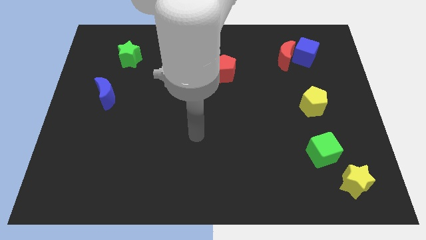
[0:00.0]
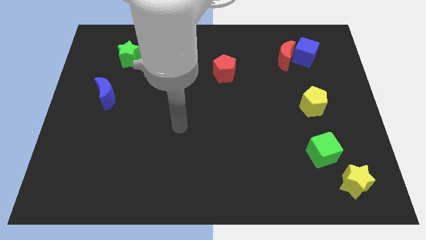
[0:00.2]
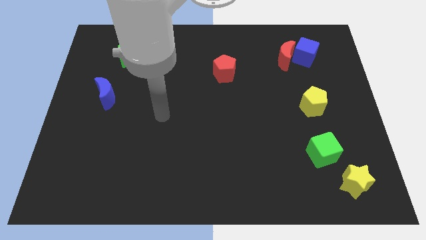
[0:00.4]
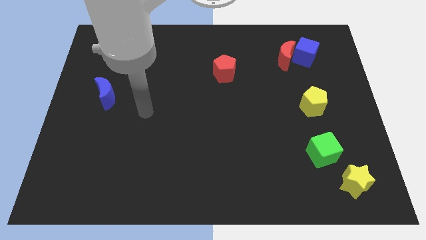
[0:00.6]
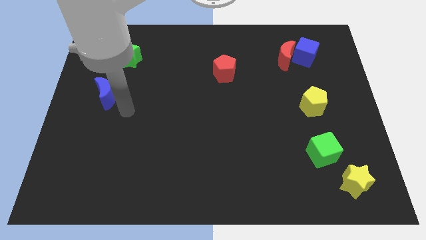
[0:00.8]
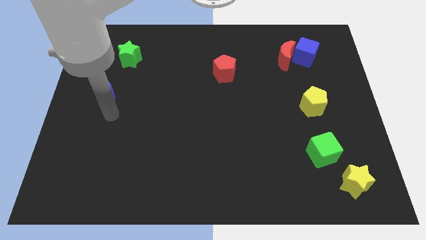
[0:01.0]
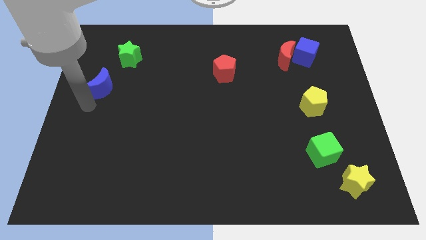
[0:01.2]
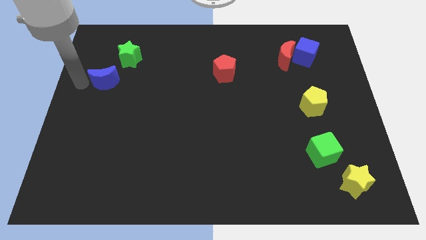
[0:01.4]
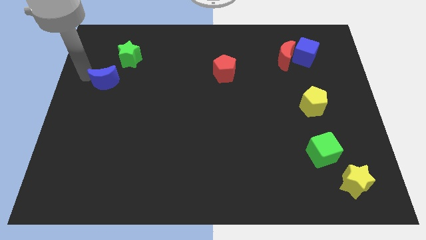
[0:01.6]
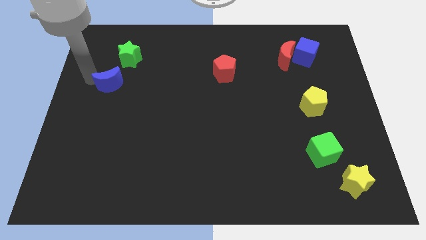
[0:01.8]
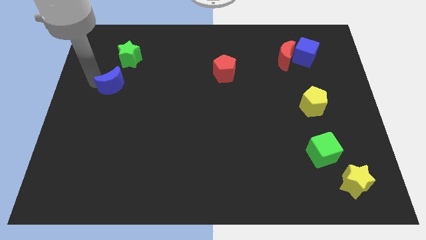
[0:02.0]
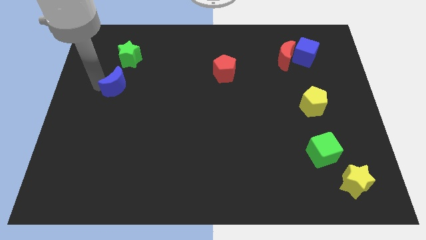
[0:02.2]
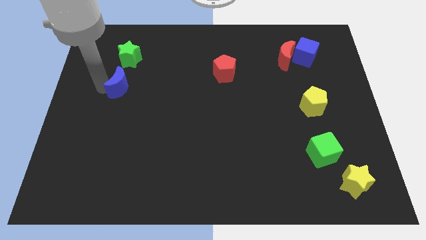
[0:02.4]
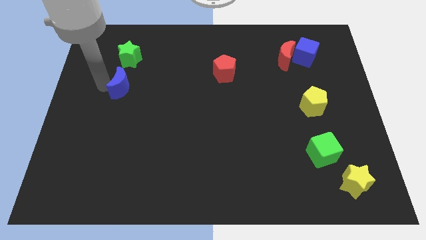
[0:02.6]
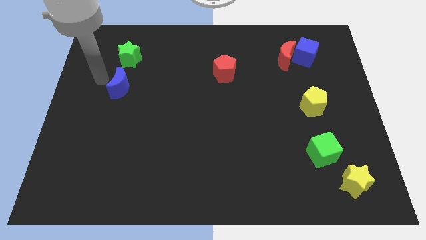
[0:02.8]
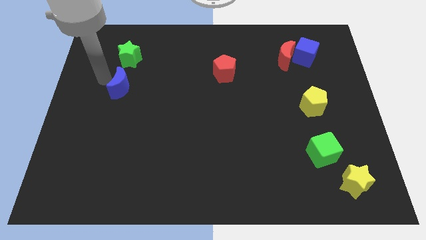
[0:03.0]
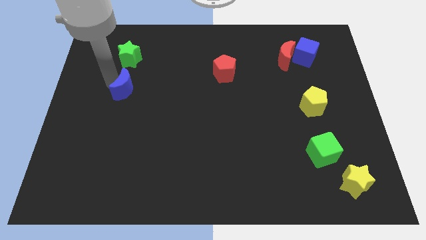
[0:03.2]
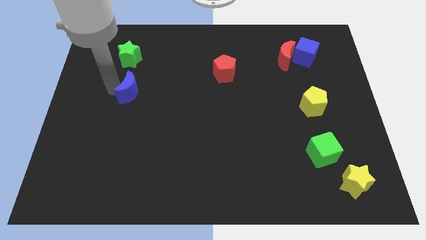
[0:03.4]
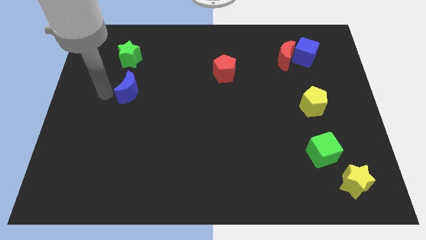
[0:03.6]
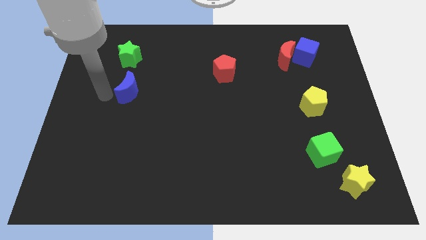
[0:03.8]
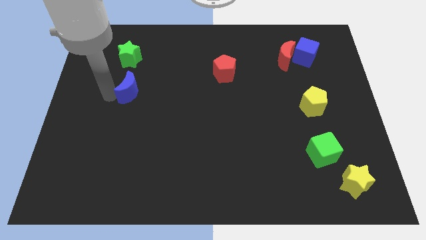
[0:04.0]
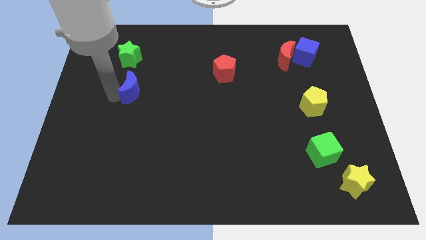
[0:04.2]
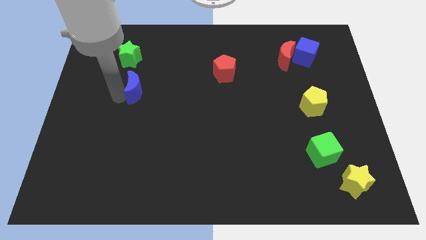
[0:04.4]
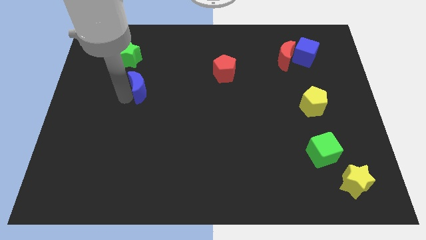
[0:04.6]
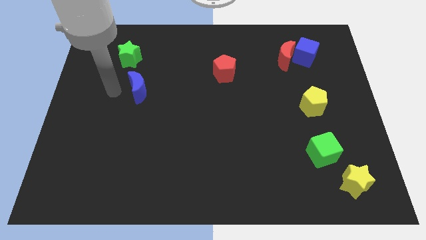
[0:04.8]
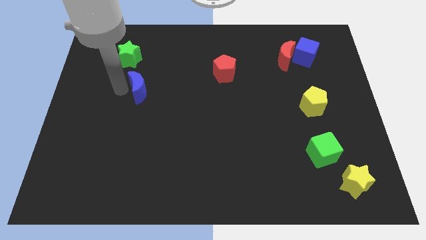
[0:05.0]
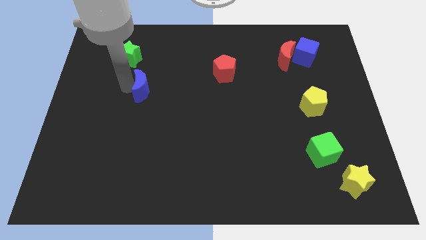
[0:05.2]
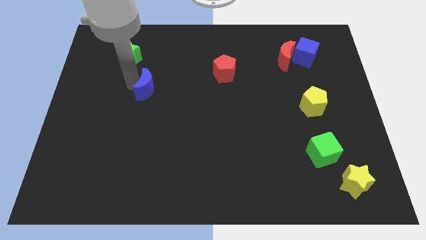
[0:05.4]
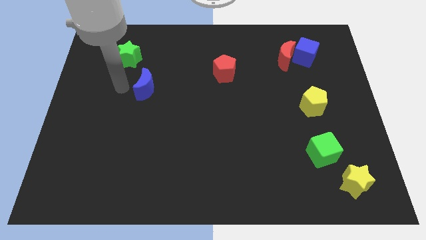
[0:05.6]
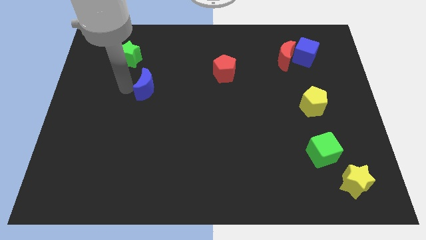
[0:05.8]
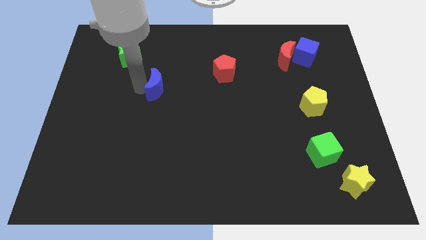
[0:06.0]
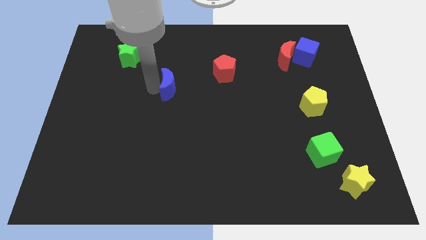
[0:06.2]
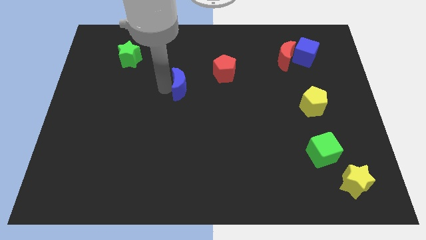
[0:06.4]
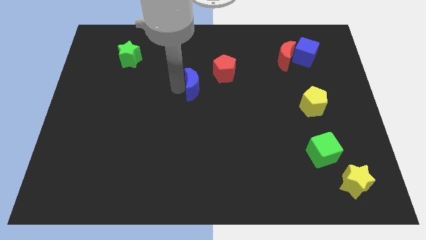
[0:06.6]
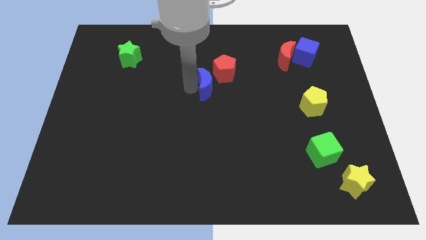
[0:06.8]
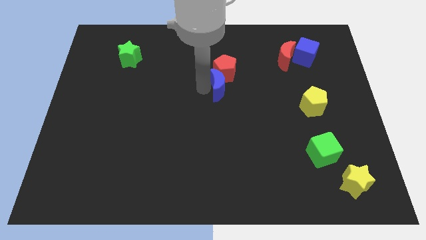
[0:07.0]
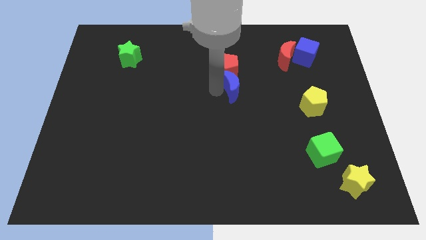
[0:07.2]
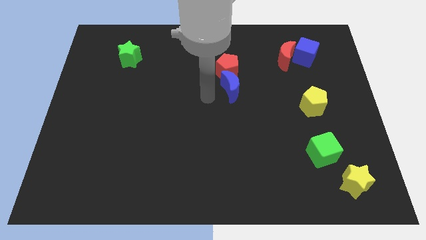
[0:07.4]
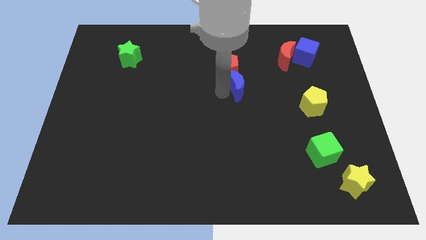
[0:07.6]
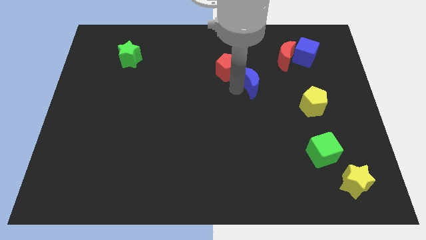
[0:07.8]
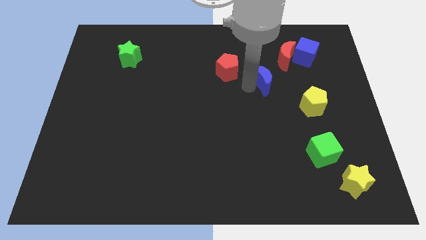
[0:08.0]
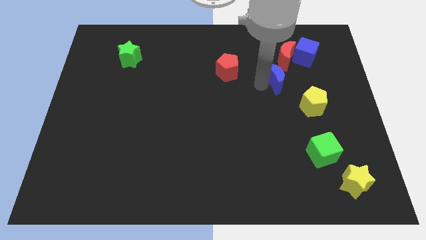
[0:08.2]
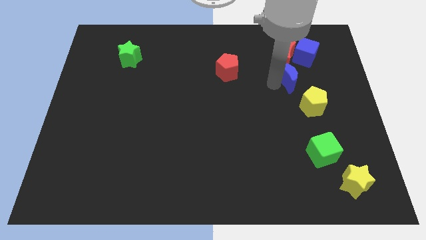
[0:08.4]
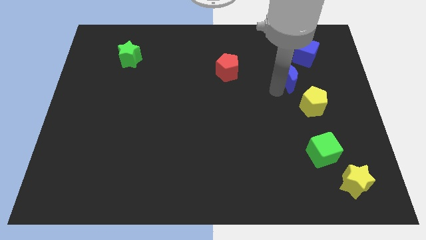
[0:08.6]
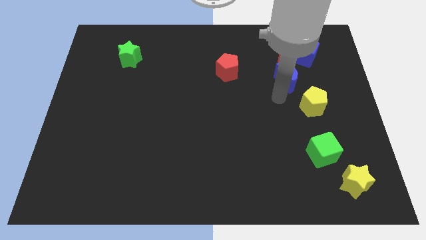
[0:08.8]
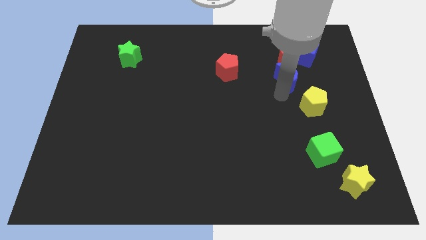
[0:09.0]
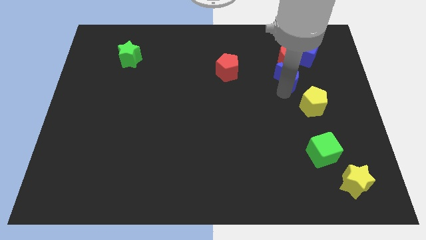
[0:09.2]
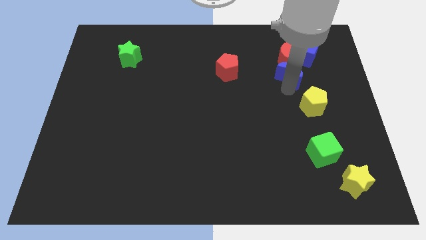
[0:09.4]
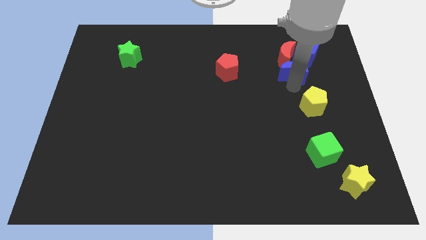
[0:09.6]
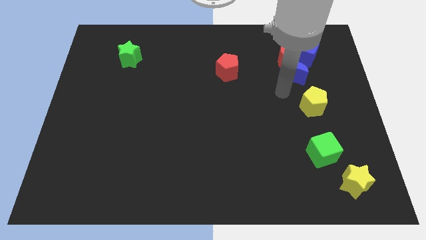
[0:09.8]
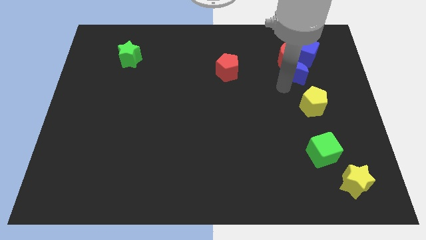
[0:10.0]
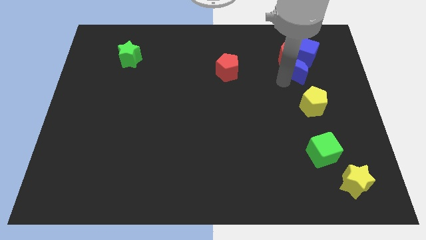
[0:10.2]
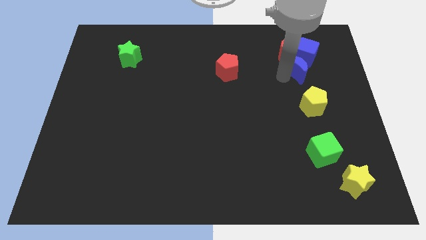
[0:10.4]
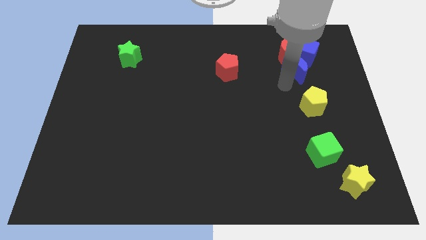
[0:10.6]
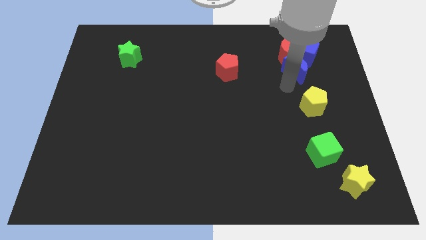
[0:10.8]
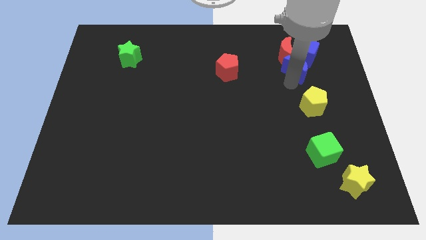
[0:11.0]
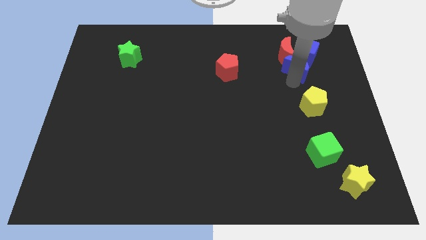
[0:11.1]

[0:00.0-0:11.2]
move the blue moon next to the blue cube

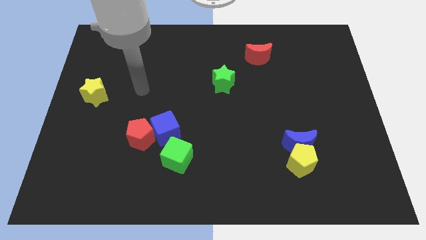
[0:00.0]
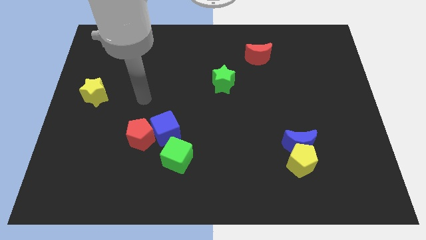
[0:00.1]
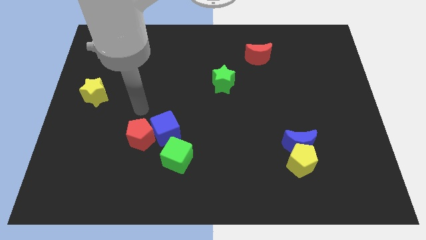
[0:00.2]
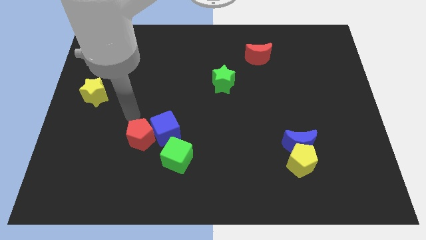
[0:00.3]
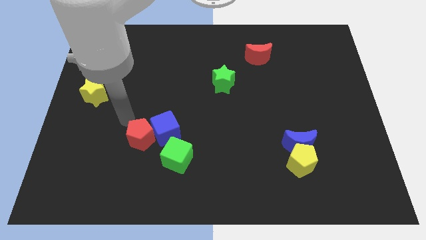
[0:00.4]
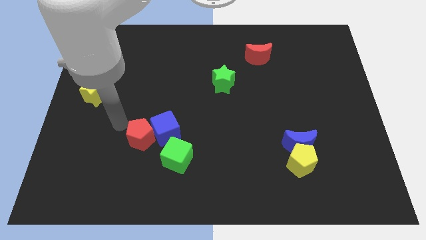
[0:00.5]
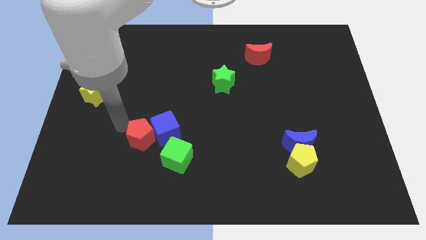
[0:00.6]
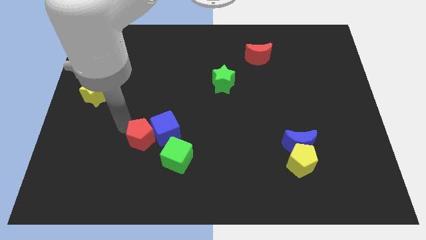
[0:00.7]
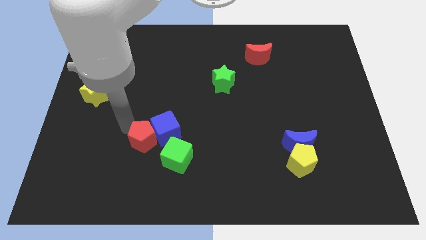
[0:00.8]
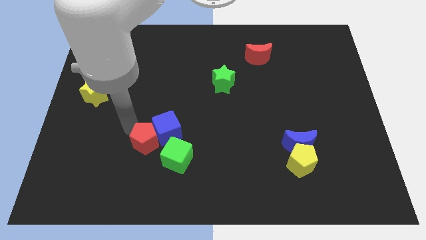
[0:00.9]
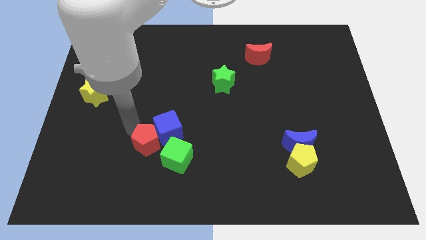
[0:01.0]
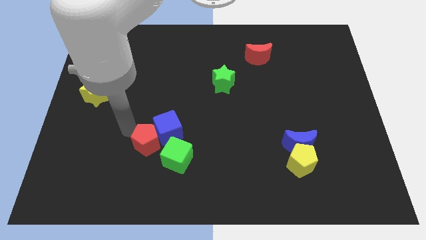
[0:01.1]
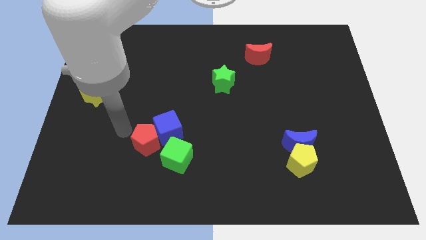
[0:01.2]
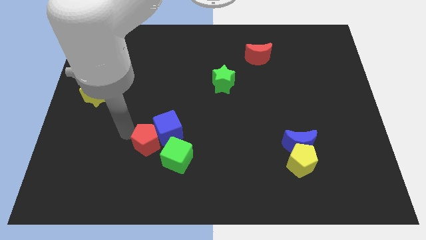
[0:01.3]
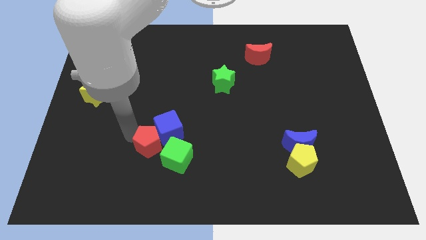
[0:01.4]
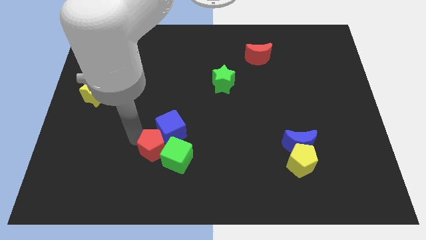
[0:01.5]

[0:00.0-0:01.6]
move the red pentagon close to the green cube
